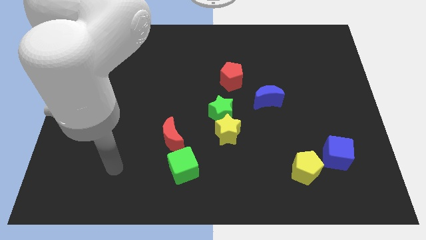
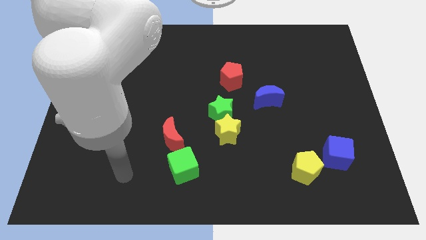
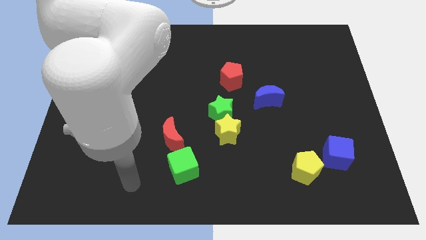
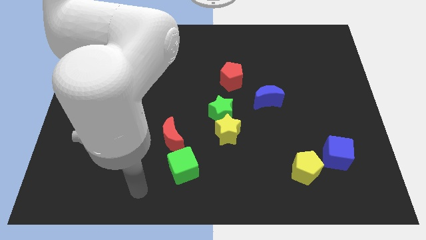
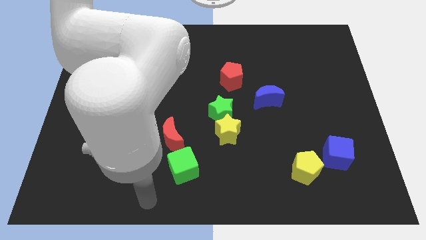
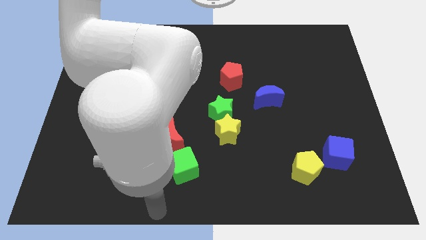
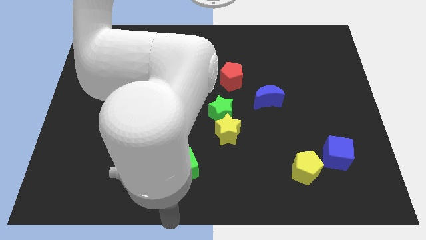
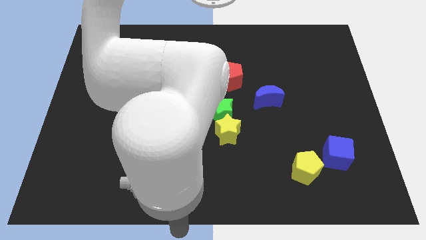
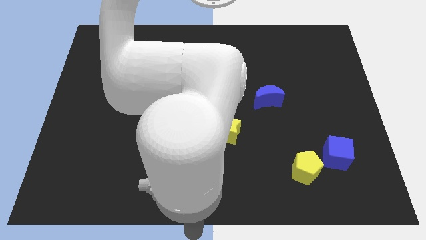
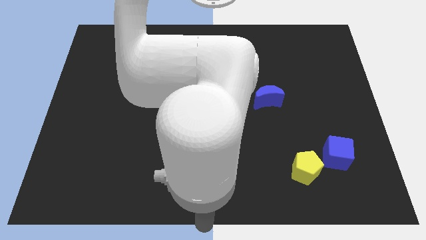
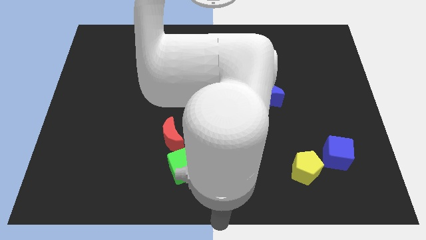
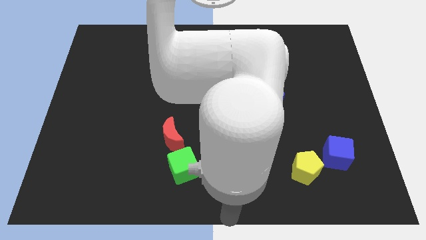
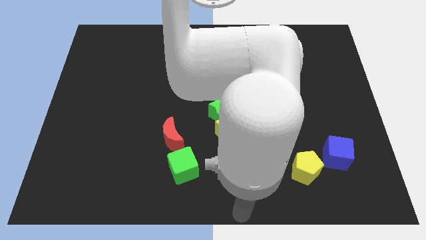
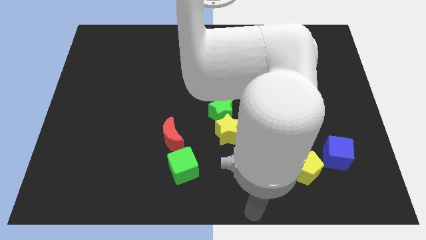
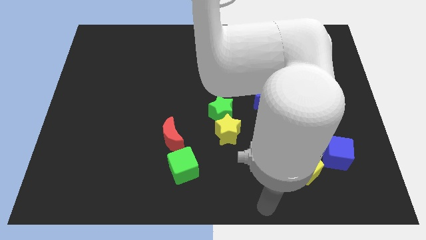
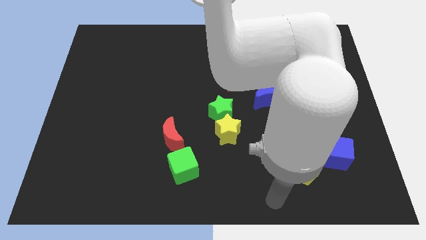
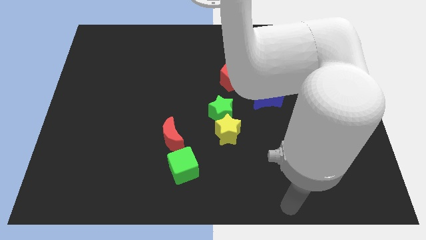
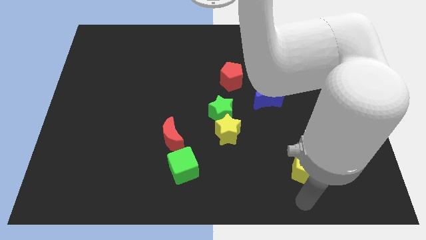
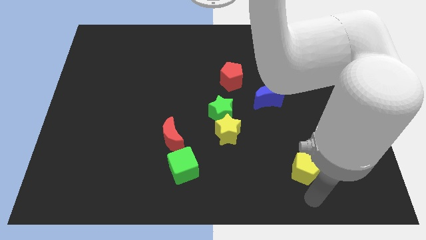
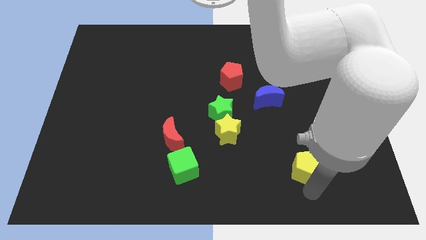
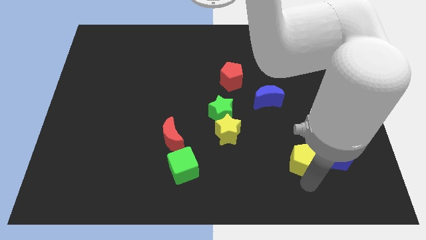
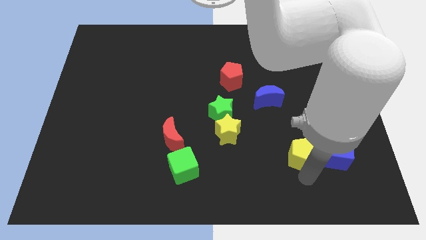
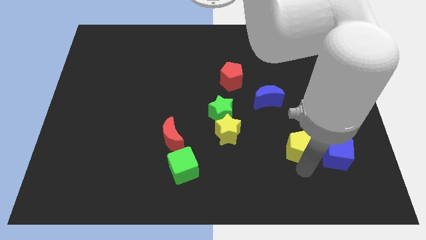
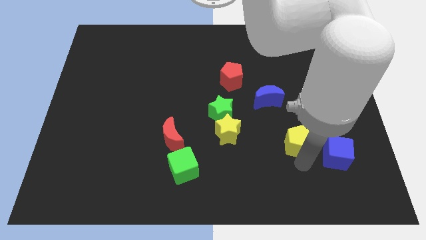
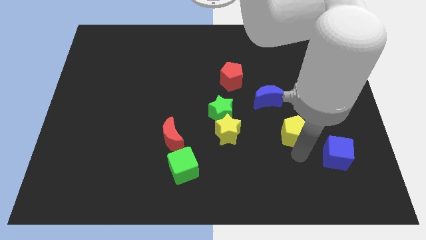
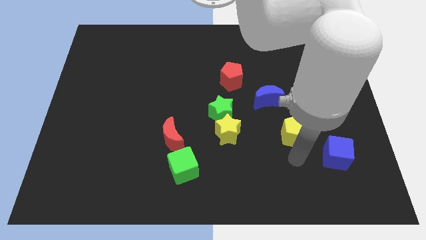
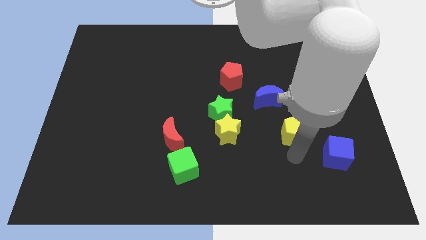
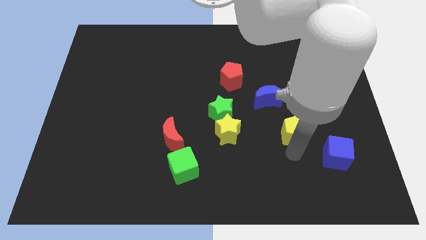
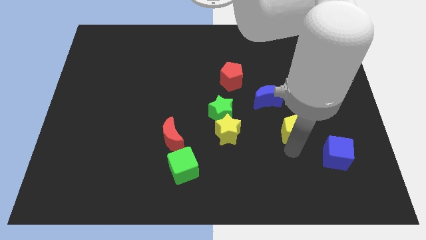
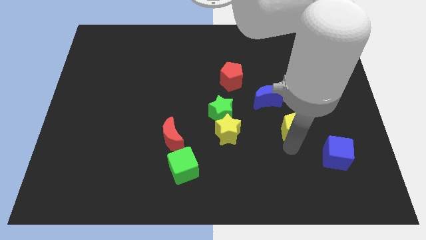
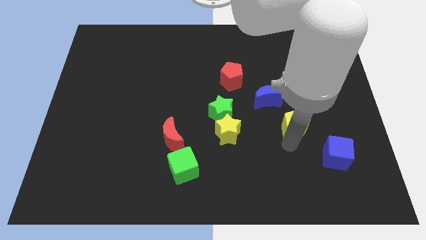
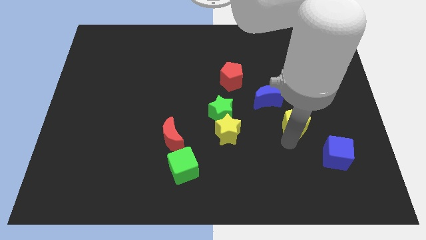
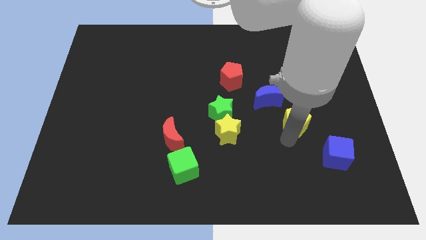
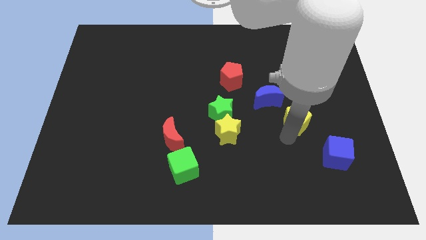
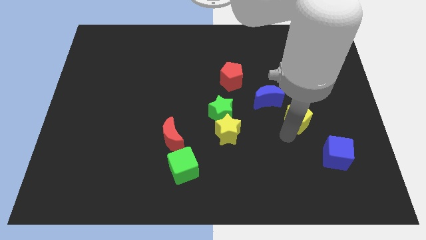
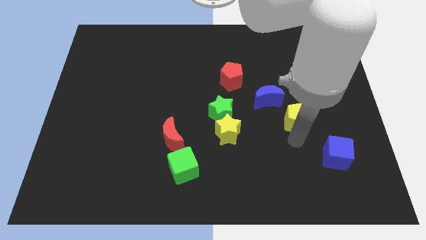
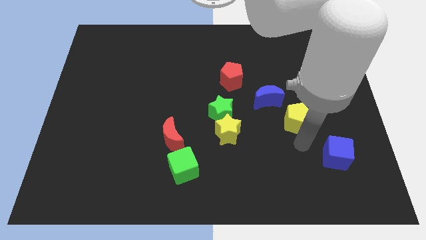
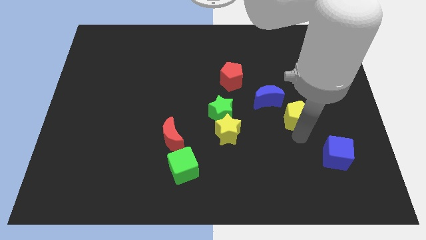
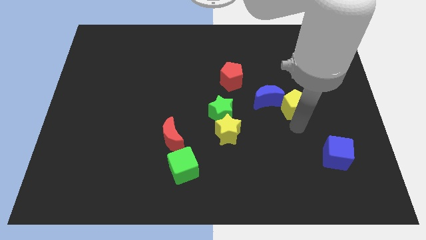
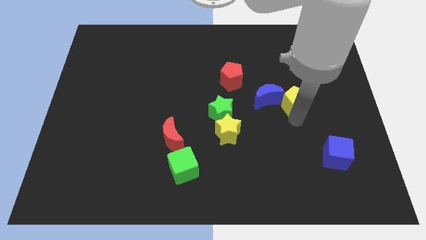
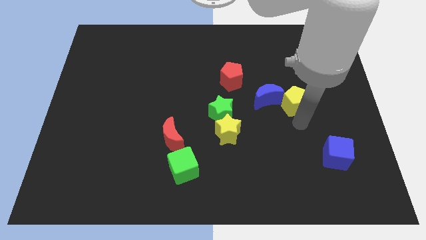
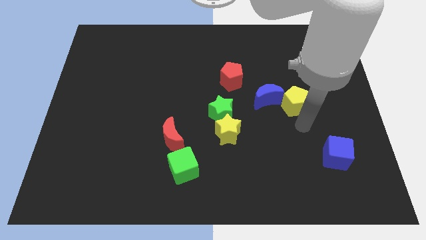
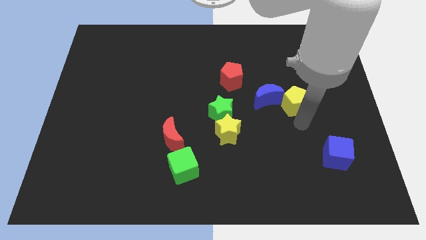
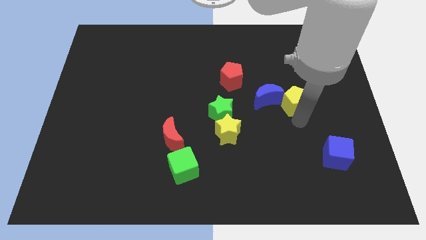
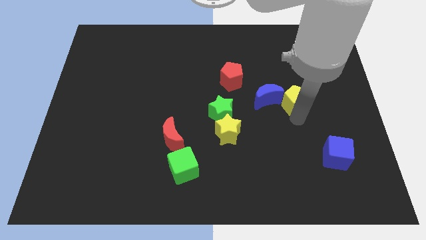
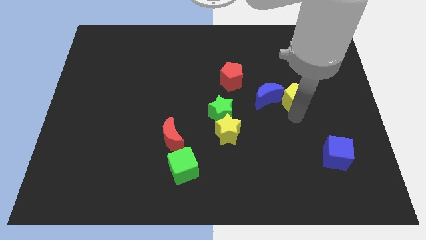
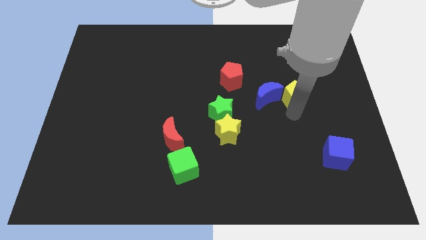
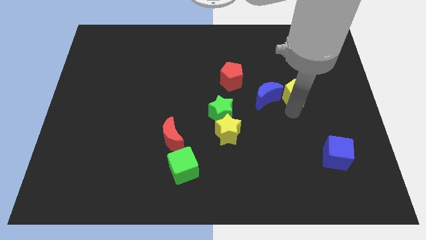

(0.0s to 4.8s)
push the yellow pentagon upwards

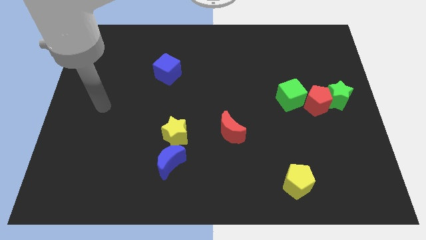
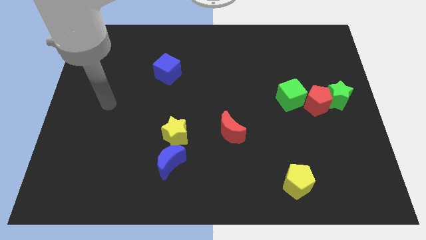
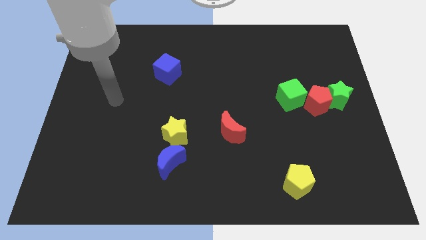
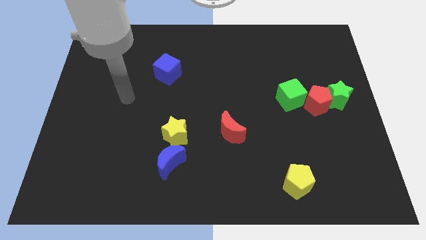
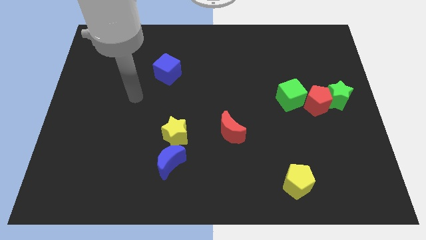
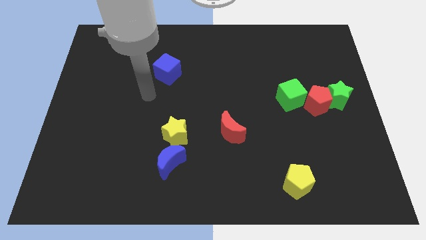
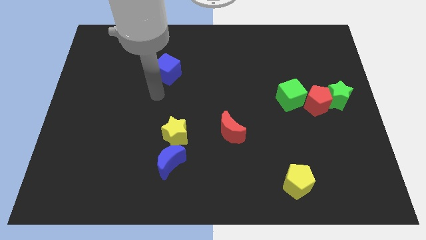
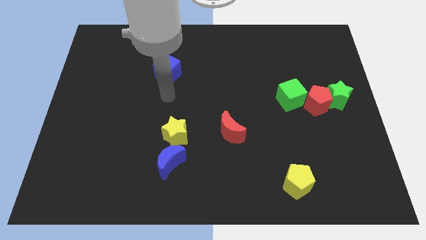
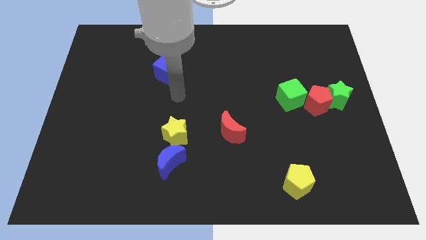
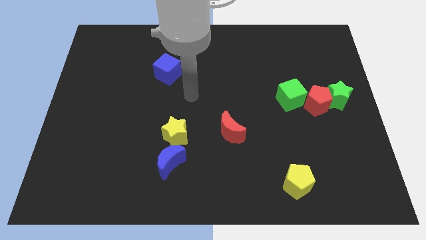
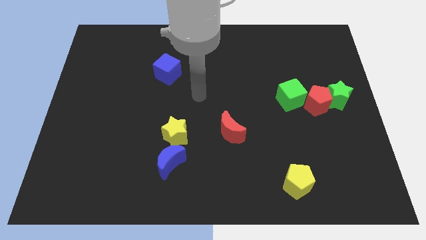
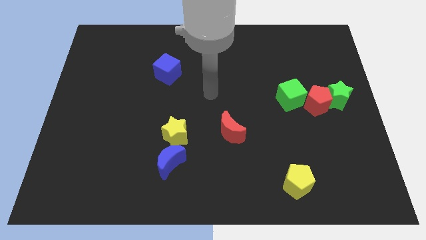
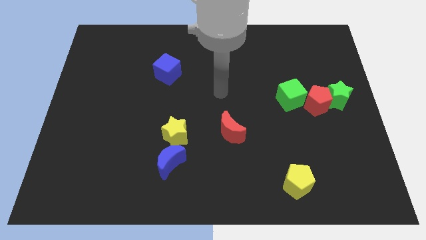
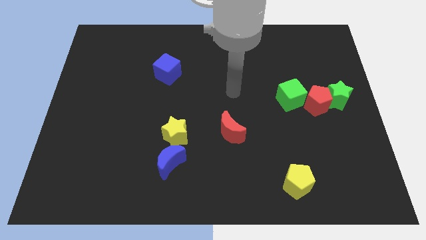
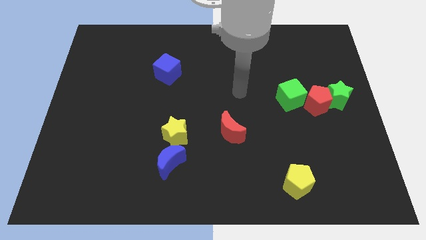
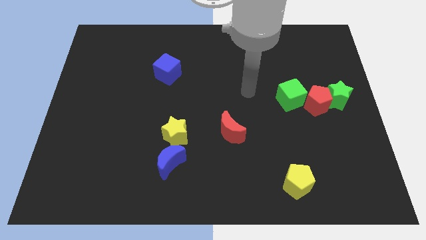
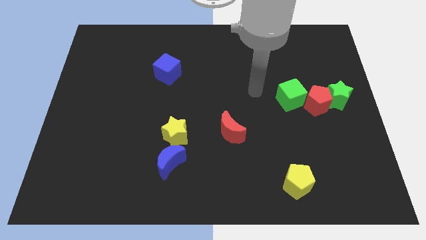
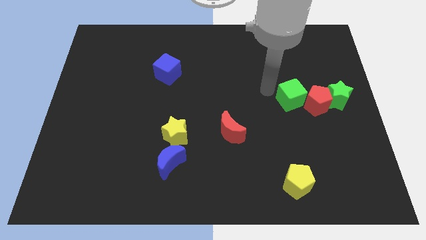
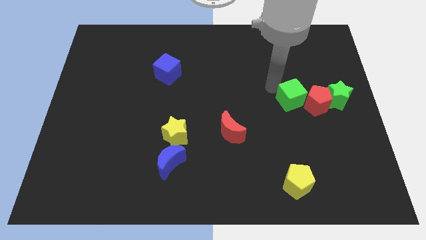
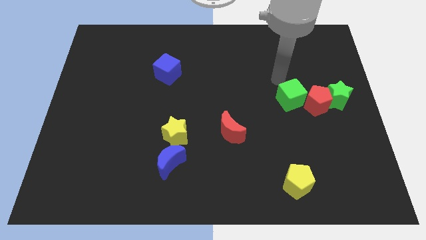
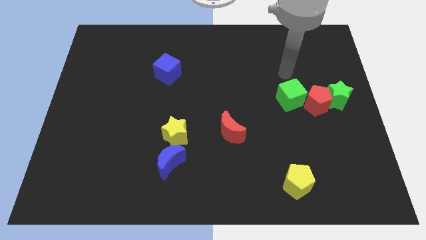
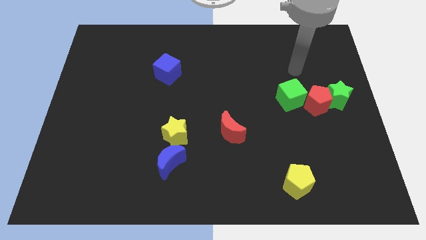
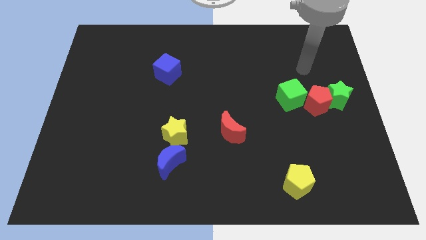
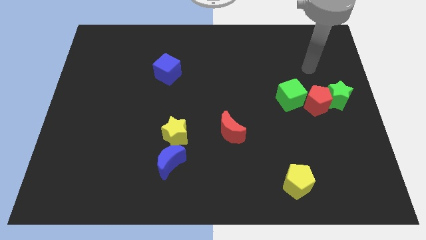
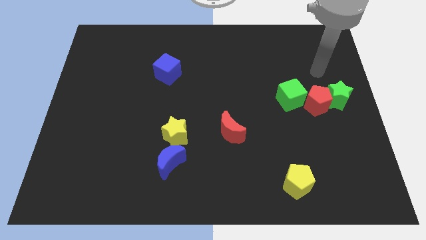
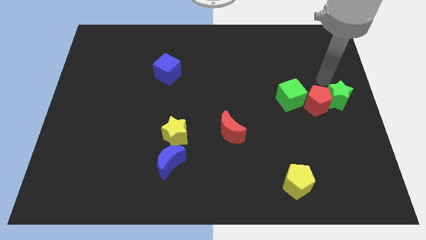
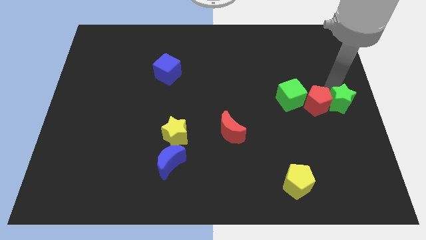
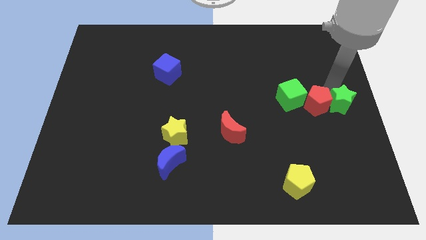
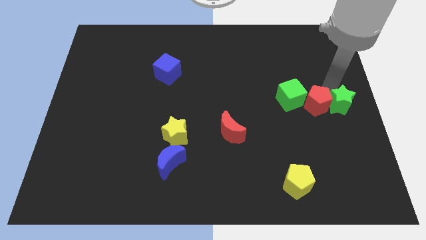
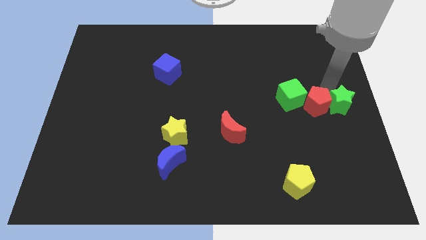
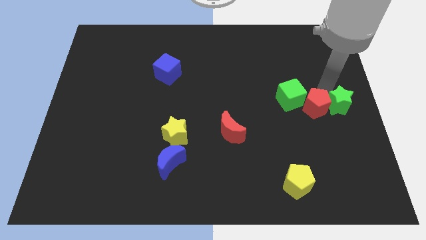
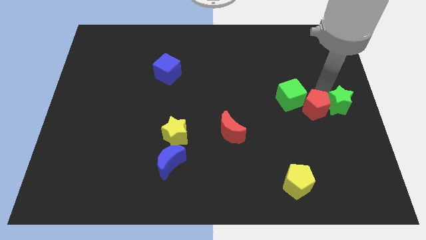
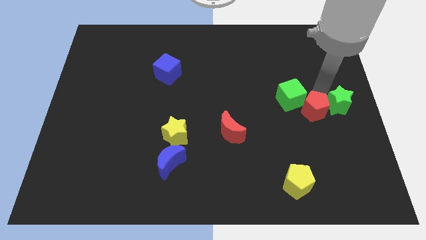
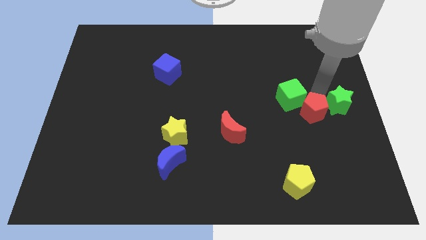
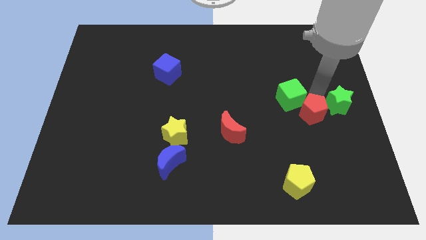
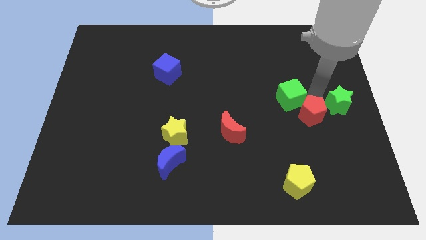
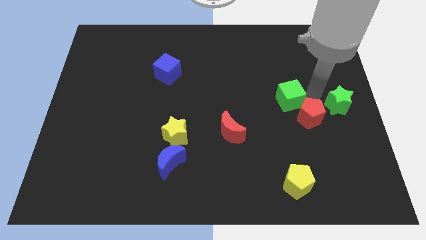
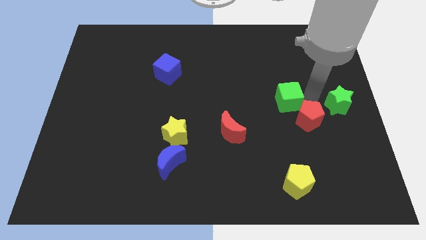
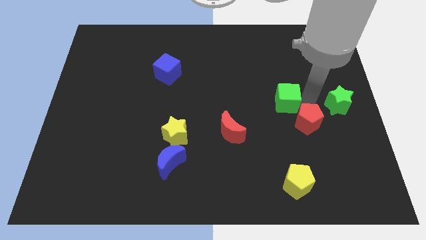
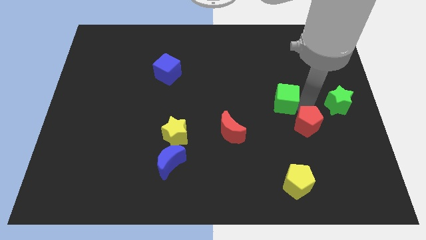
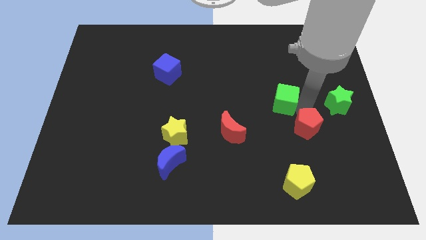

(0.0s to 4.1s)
slightly push the red pentagon downwards and then left
